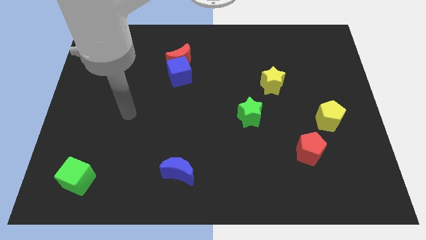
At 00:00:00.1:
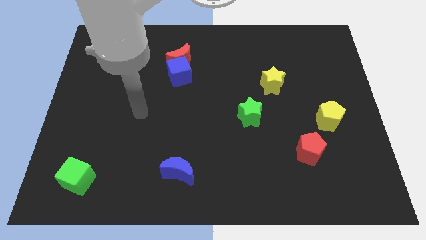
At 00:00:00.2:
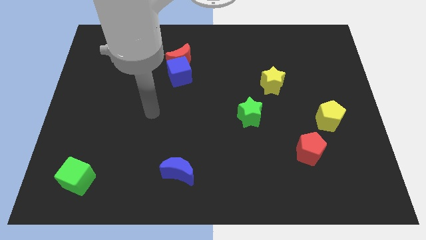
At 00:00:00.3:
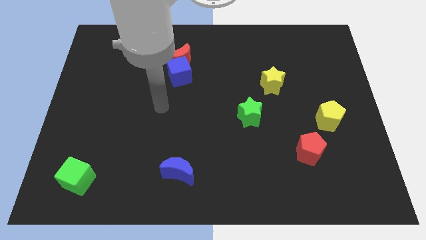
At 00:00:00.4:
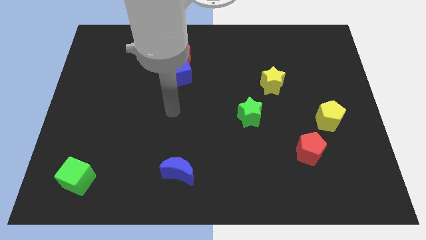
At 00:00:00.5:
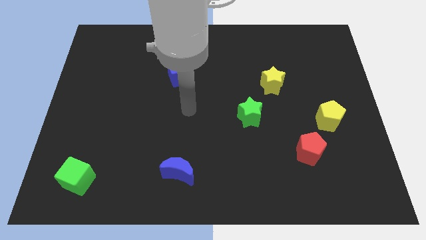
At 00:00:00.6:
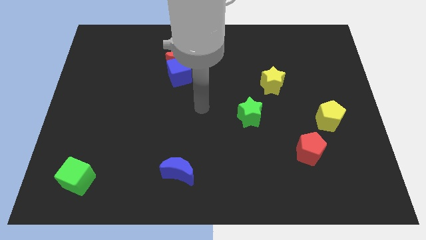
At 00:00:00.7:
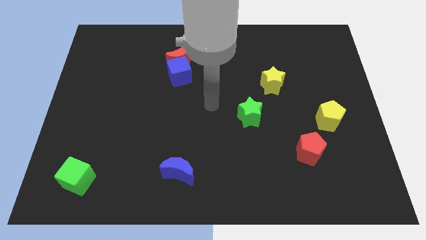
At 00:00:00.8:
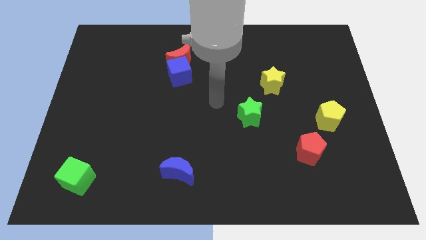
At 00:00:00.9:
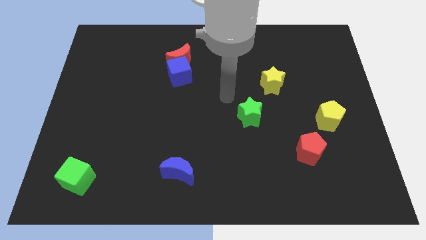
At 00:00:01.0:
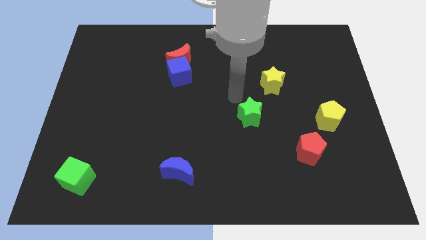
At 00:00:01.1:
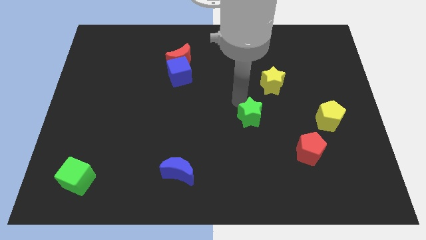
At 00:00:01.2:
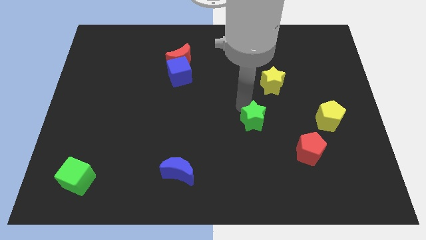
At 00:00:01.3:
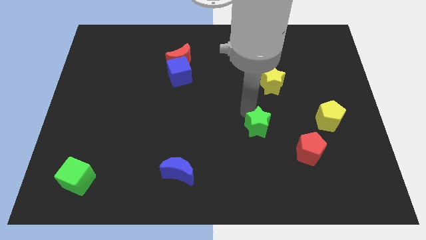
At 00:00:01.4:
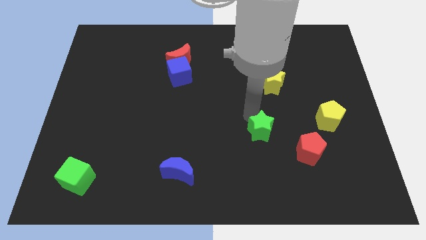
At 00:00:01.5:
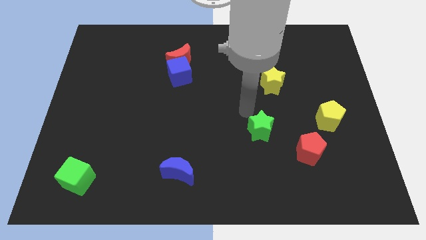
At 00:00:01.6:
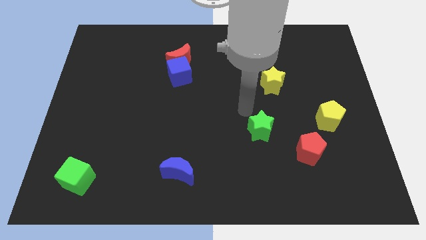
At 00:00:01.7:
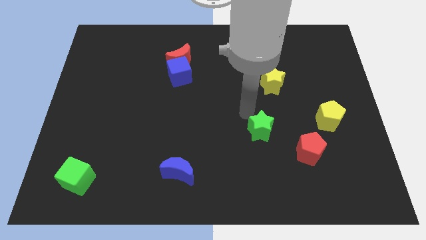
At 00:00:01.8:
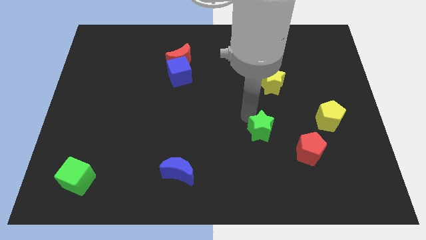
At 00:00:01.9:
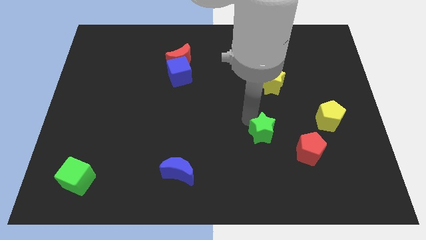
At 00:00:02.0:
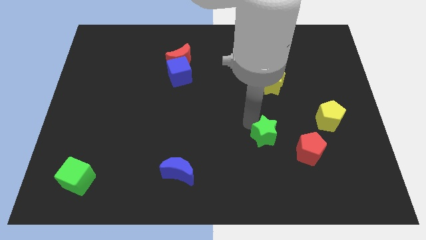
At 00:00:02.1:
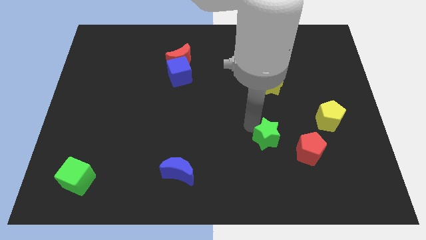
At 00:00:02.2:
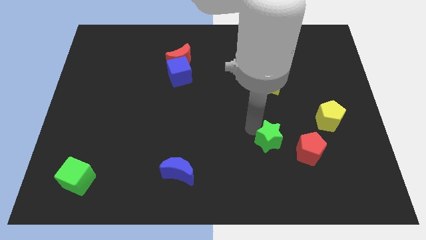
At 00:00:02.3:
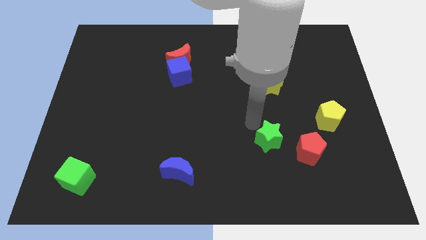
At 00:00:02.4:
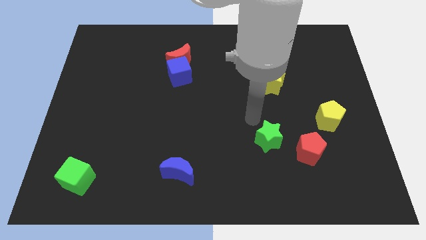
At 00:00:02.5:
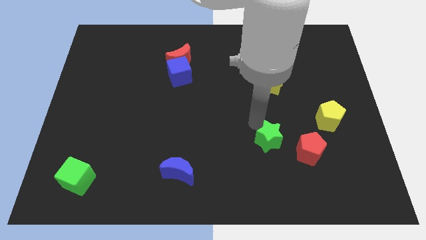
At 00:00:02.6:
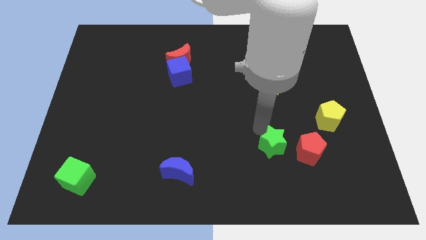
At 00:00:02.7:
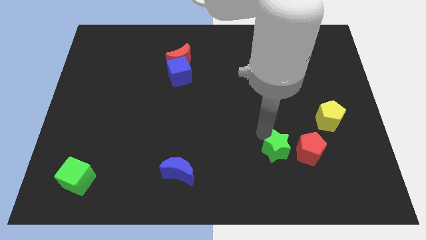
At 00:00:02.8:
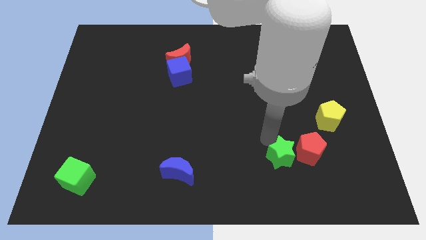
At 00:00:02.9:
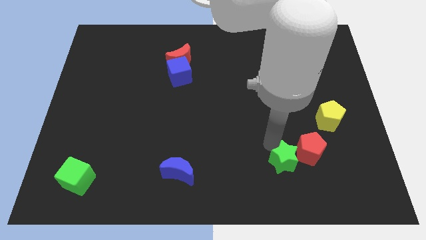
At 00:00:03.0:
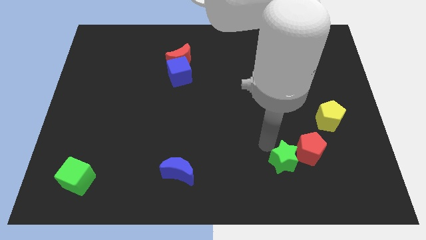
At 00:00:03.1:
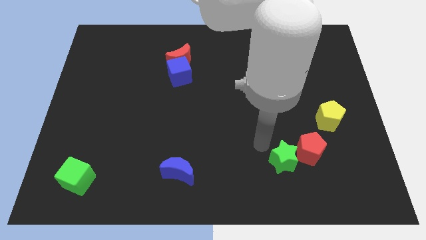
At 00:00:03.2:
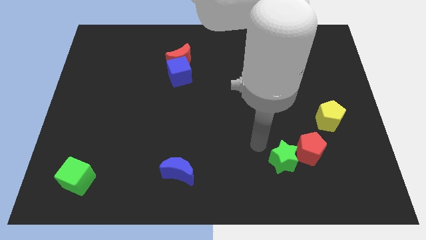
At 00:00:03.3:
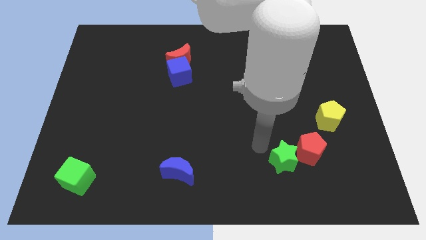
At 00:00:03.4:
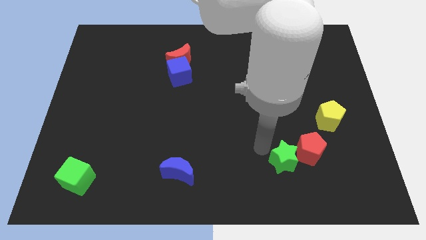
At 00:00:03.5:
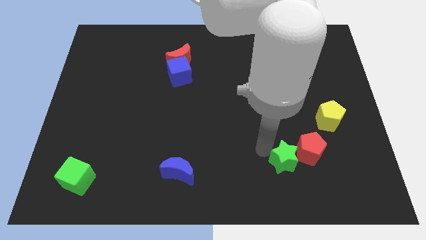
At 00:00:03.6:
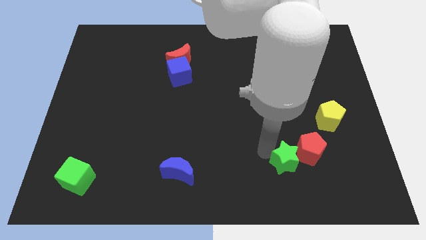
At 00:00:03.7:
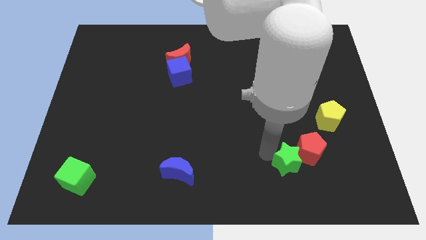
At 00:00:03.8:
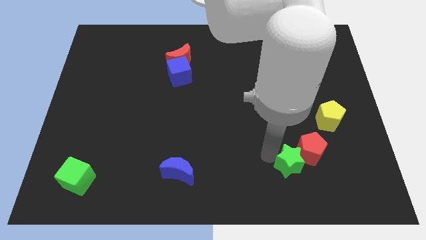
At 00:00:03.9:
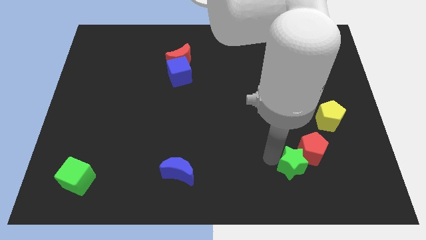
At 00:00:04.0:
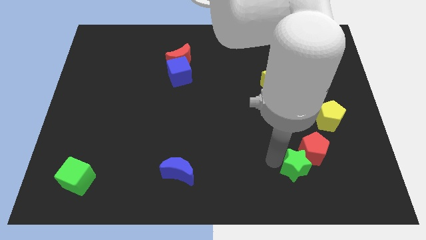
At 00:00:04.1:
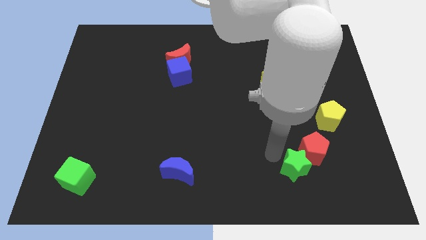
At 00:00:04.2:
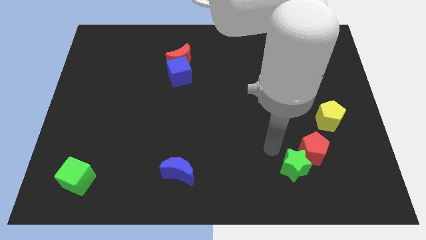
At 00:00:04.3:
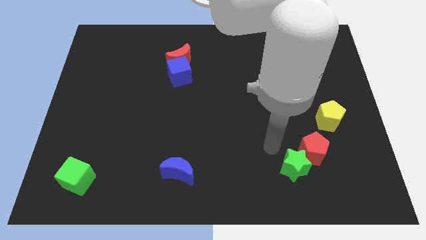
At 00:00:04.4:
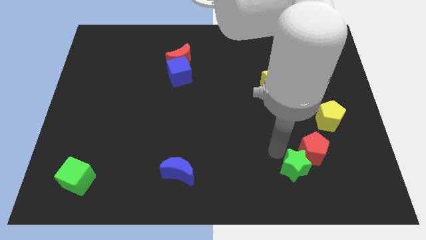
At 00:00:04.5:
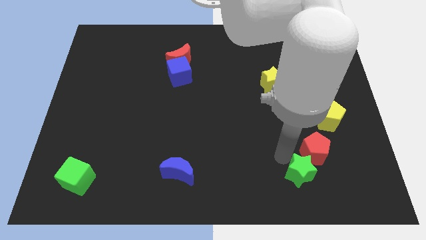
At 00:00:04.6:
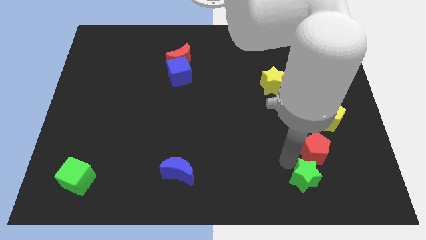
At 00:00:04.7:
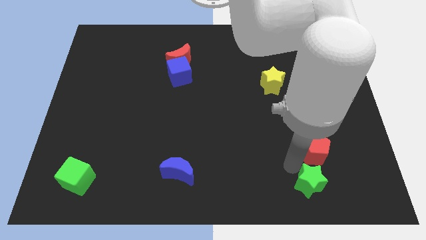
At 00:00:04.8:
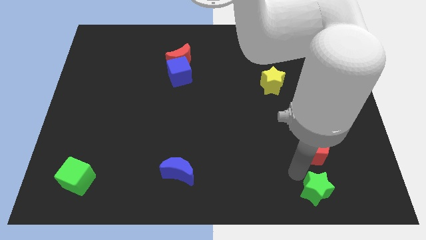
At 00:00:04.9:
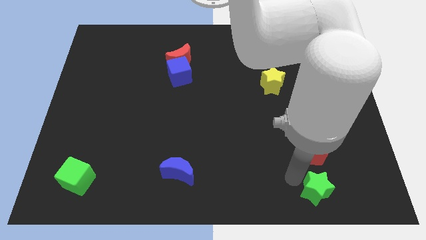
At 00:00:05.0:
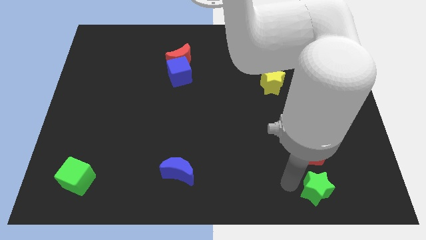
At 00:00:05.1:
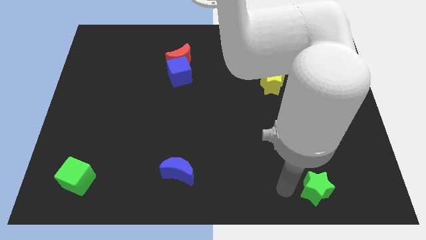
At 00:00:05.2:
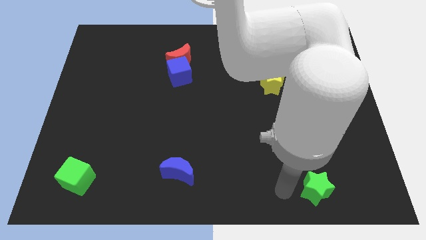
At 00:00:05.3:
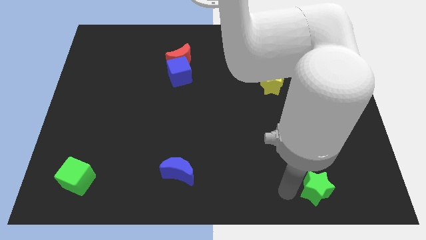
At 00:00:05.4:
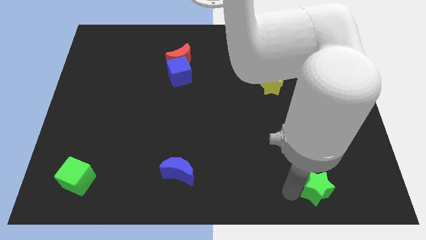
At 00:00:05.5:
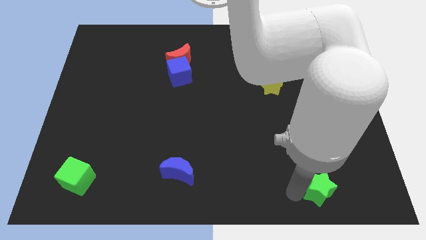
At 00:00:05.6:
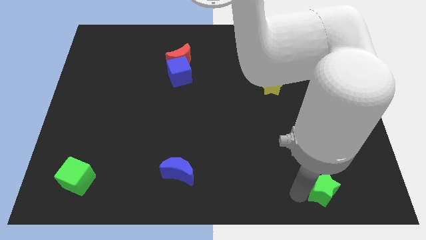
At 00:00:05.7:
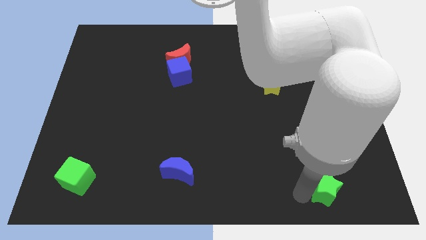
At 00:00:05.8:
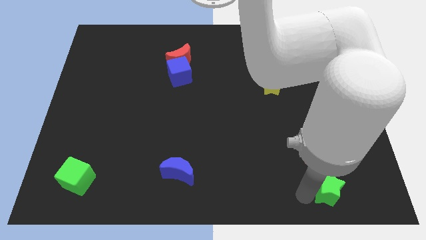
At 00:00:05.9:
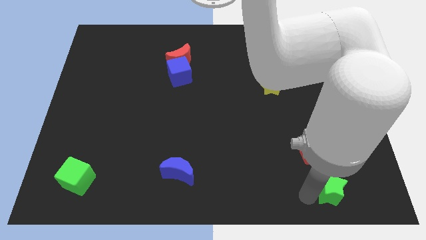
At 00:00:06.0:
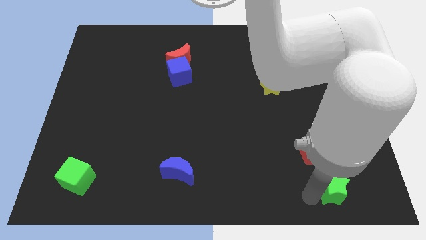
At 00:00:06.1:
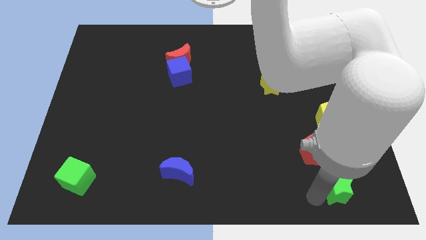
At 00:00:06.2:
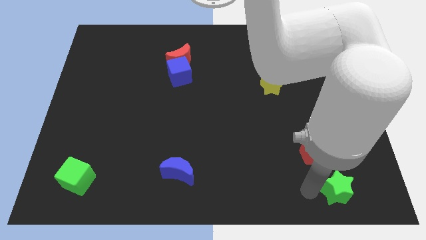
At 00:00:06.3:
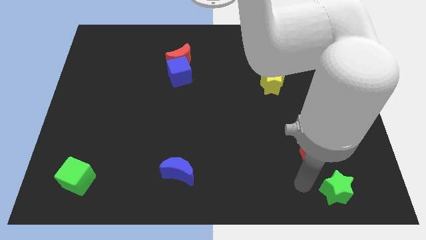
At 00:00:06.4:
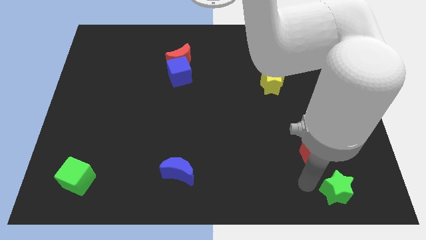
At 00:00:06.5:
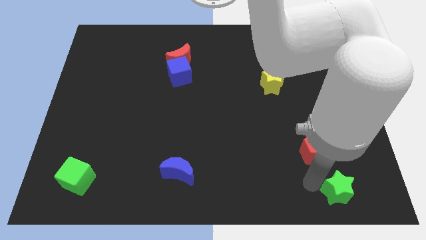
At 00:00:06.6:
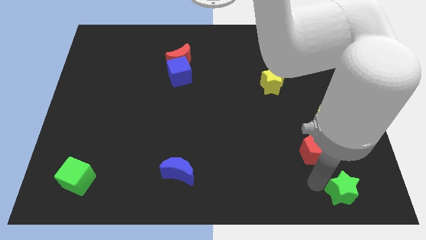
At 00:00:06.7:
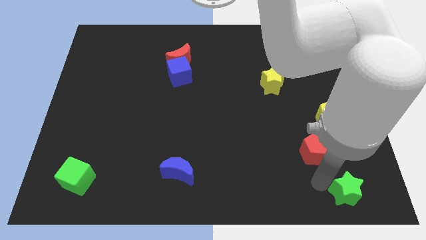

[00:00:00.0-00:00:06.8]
move the green star to the bottom right

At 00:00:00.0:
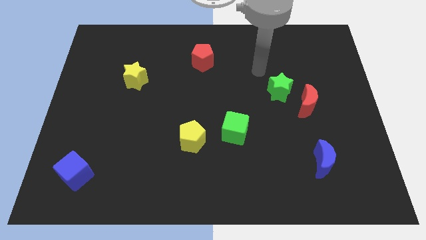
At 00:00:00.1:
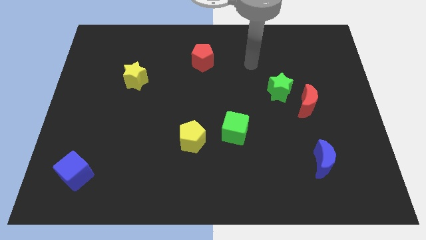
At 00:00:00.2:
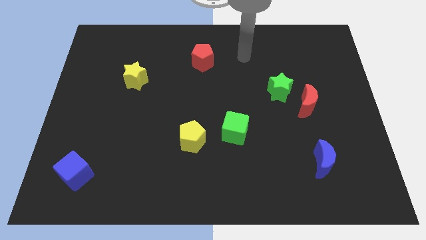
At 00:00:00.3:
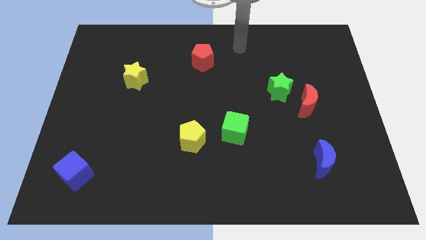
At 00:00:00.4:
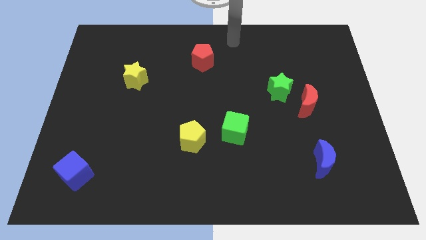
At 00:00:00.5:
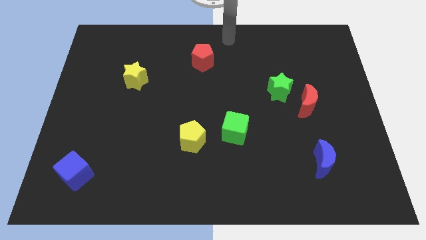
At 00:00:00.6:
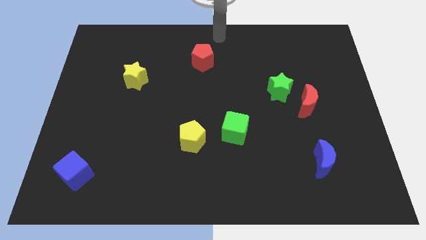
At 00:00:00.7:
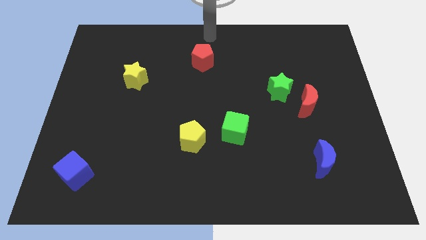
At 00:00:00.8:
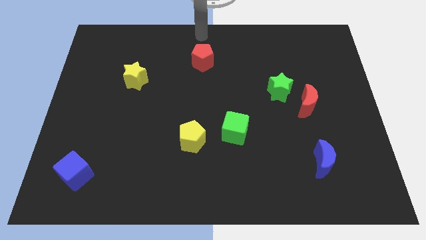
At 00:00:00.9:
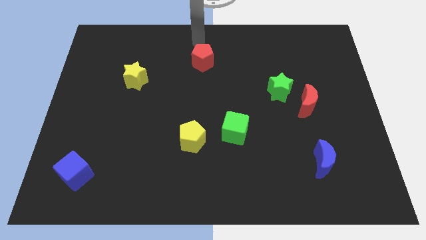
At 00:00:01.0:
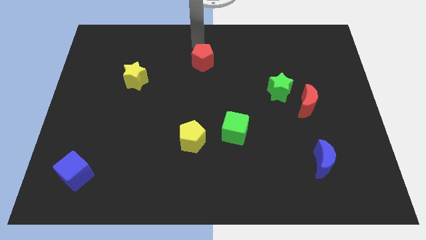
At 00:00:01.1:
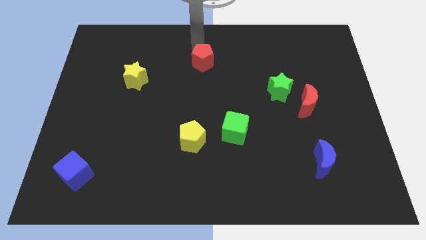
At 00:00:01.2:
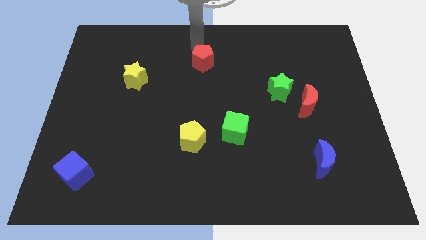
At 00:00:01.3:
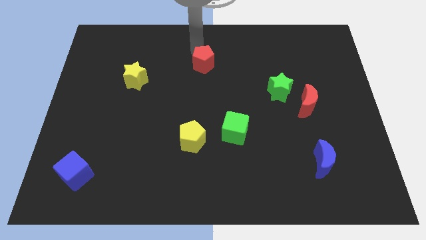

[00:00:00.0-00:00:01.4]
push the red pentagon to the center
